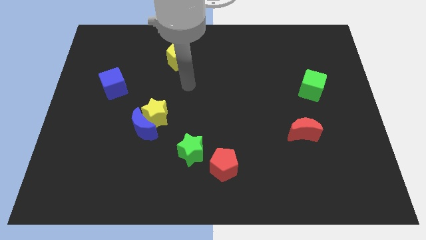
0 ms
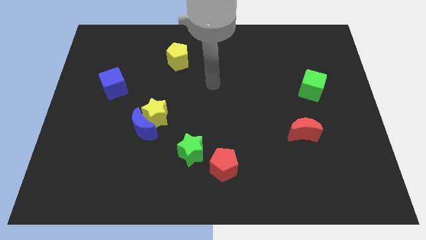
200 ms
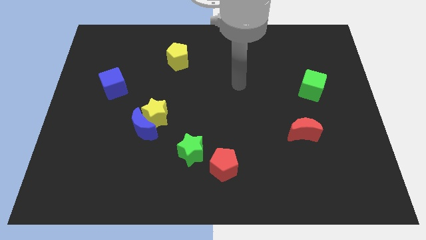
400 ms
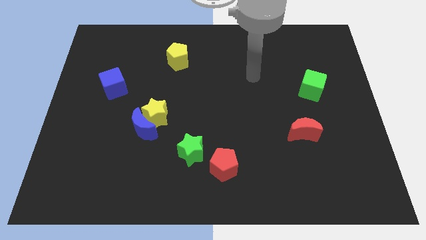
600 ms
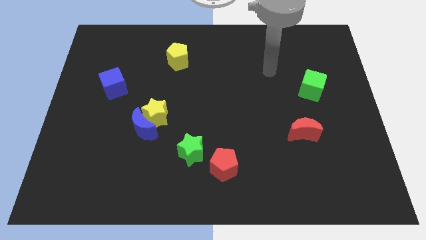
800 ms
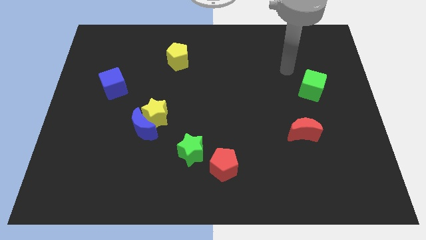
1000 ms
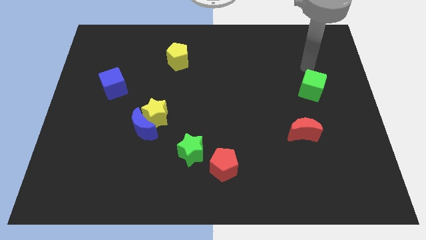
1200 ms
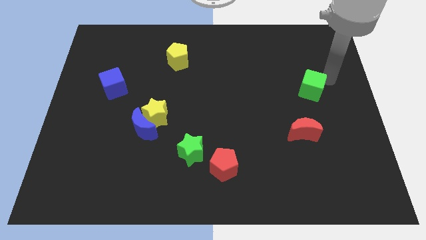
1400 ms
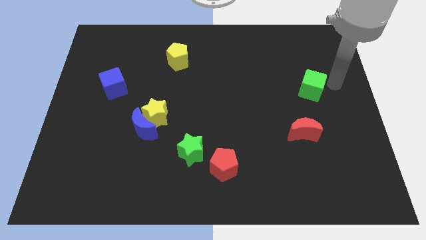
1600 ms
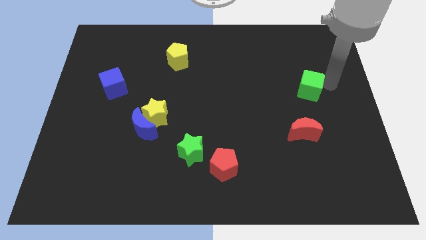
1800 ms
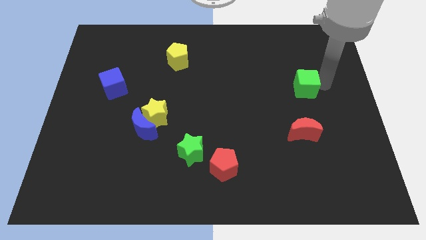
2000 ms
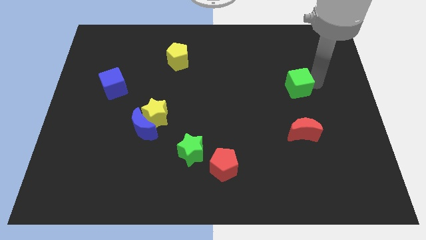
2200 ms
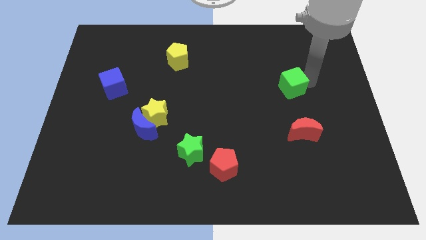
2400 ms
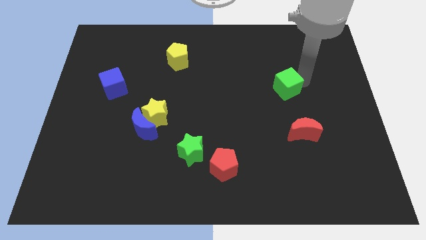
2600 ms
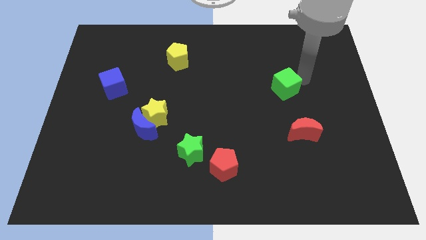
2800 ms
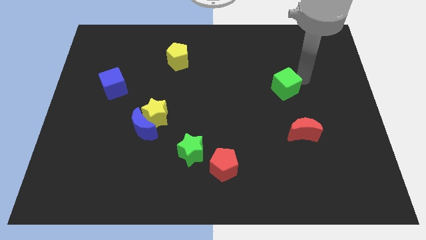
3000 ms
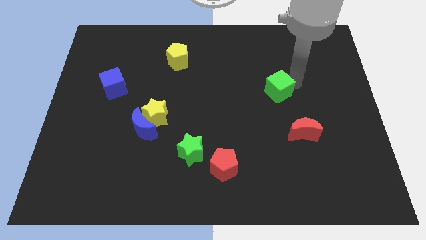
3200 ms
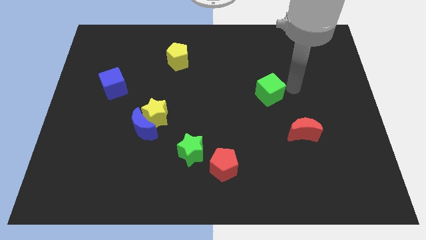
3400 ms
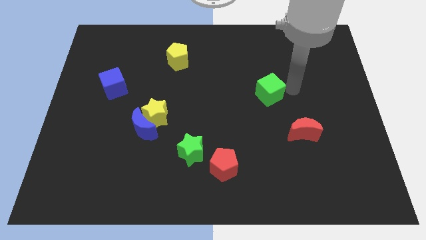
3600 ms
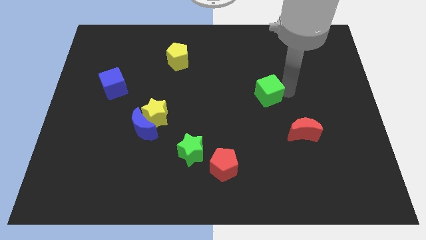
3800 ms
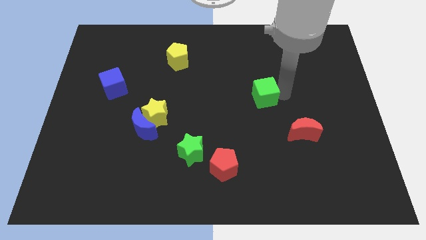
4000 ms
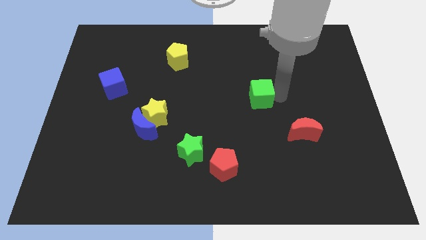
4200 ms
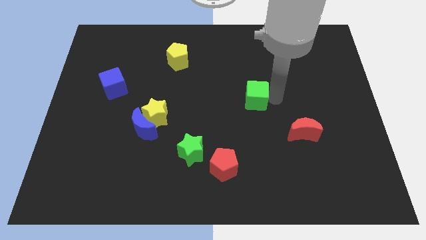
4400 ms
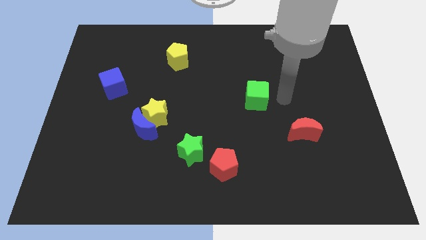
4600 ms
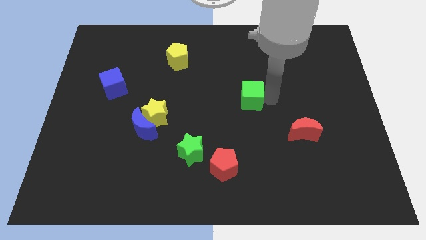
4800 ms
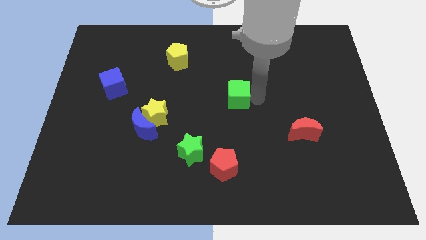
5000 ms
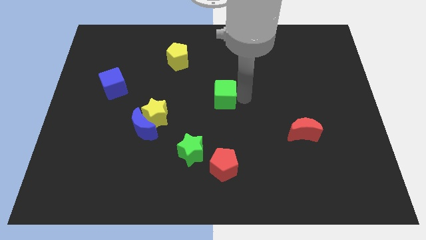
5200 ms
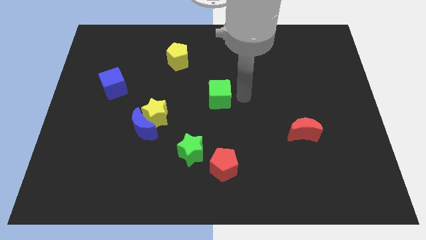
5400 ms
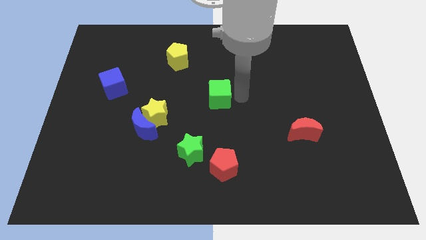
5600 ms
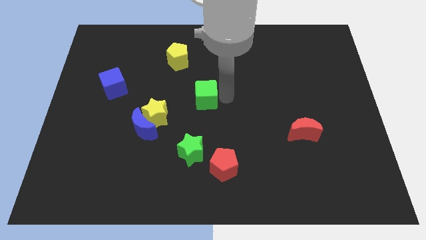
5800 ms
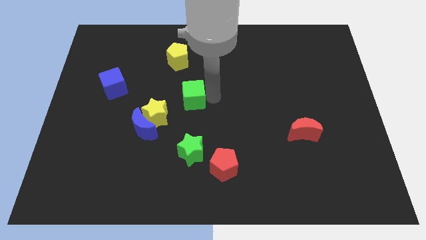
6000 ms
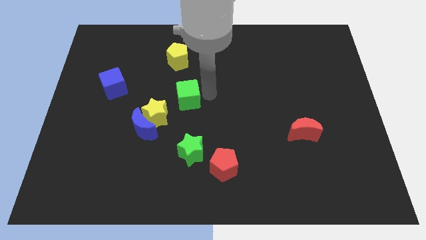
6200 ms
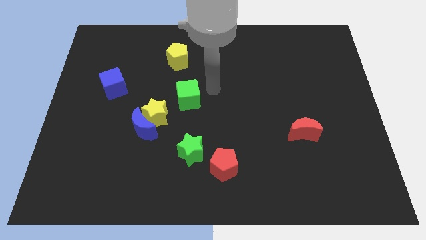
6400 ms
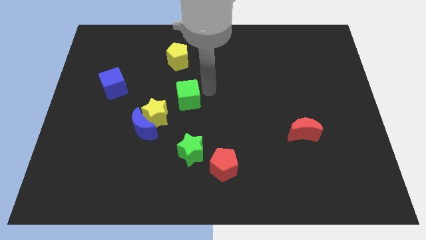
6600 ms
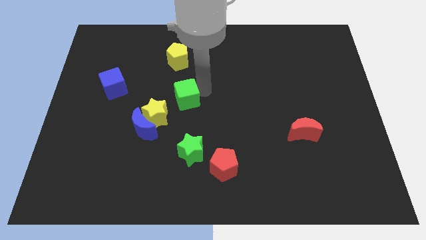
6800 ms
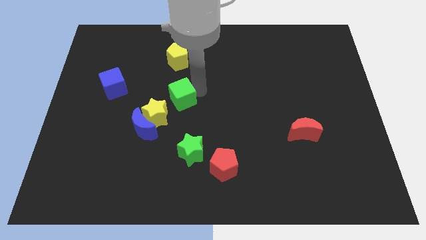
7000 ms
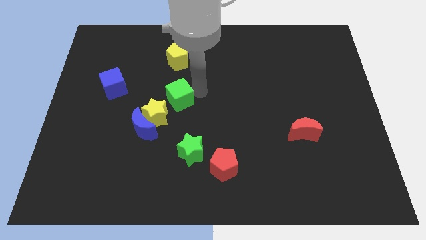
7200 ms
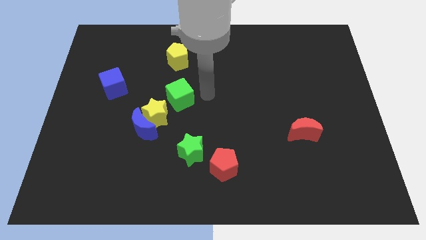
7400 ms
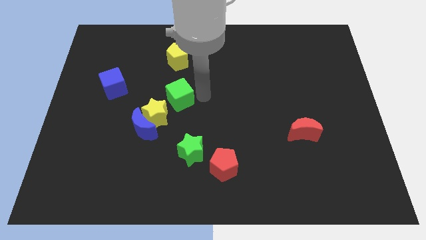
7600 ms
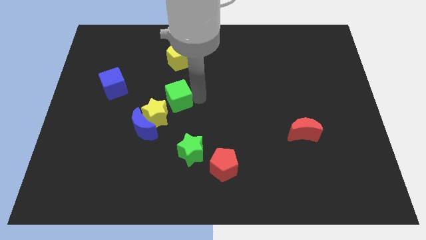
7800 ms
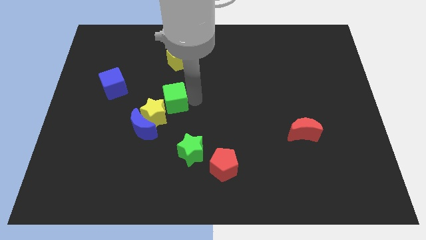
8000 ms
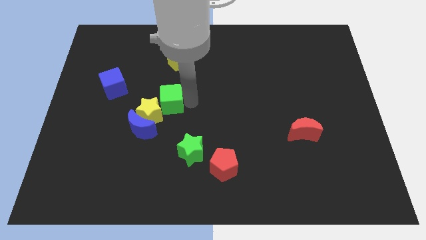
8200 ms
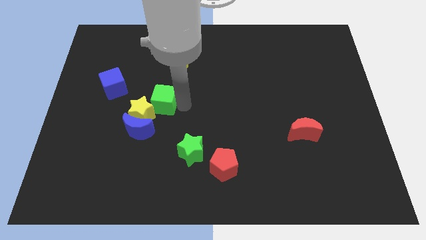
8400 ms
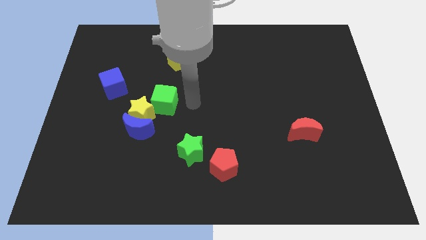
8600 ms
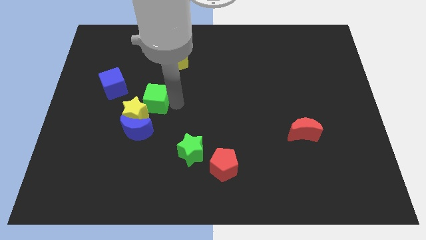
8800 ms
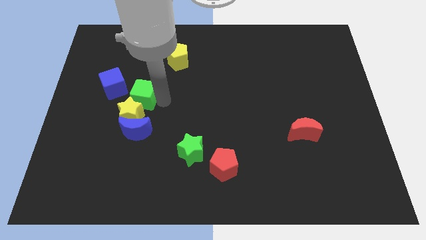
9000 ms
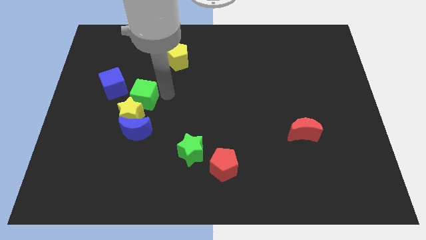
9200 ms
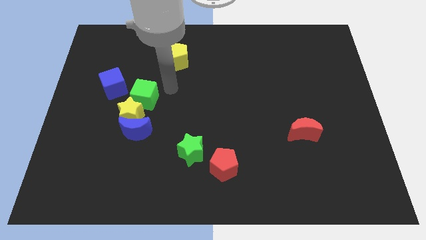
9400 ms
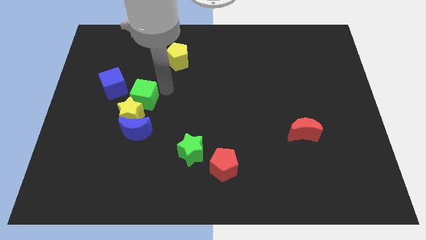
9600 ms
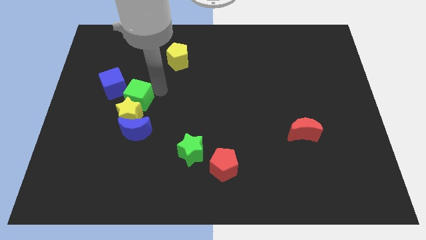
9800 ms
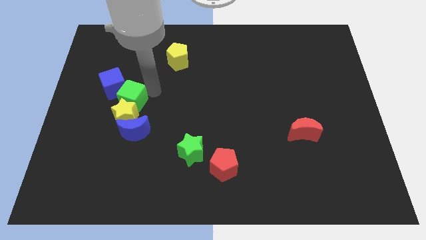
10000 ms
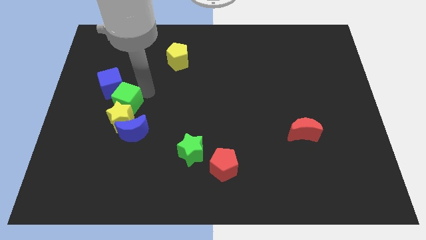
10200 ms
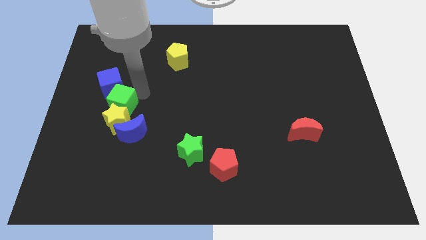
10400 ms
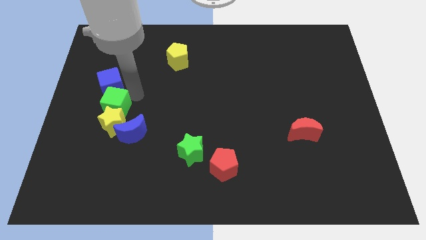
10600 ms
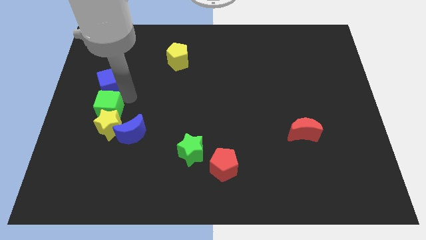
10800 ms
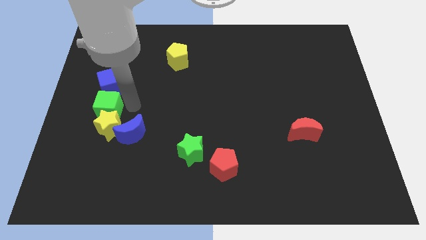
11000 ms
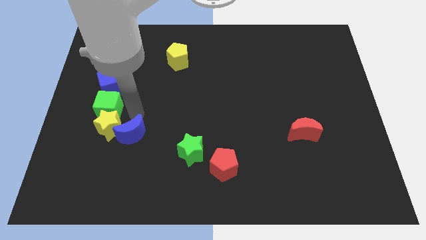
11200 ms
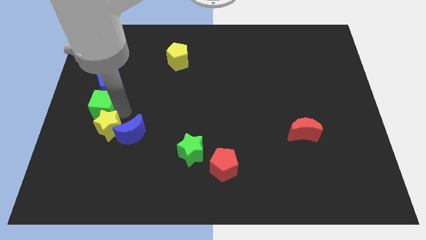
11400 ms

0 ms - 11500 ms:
move the green cube to the left side

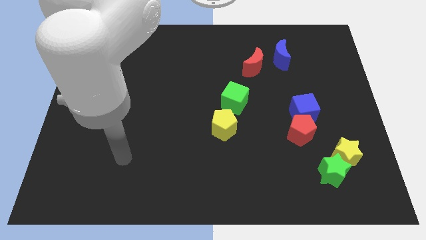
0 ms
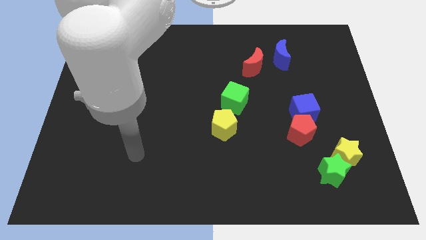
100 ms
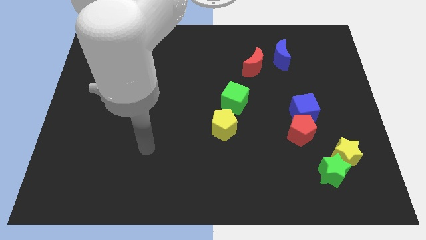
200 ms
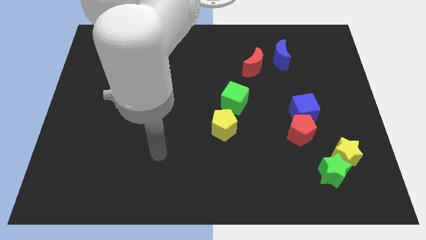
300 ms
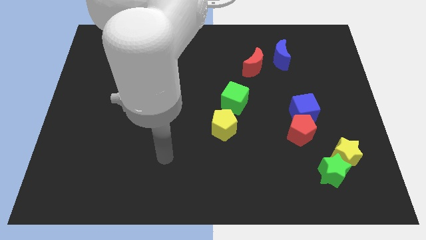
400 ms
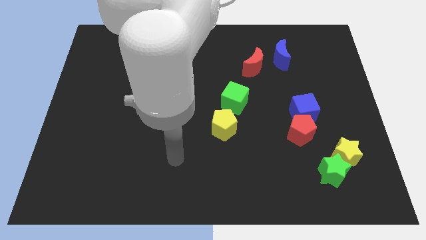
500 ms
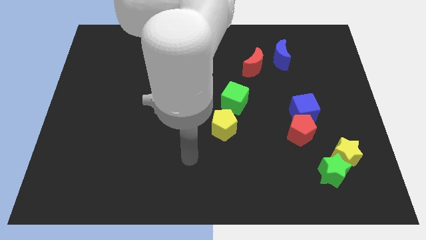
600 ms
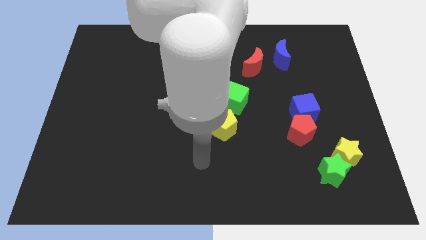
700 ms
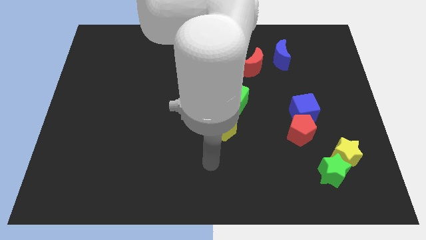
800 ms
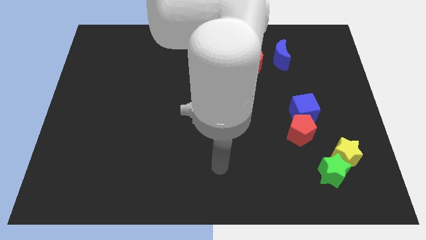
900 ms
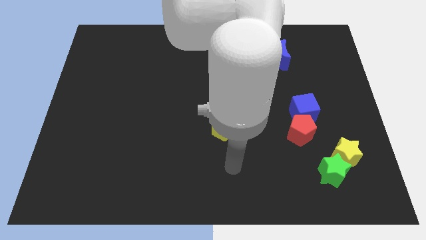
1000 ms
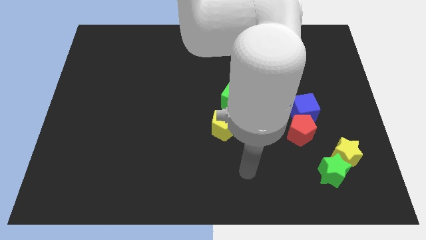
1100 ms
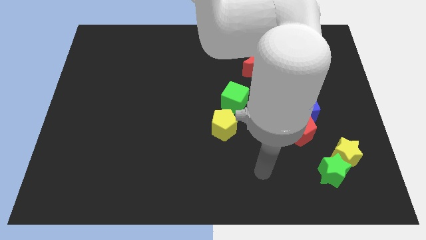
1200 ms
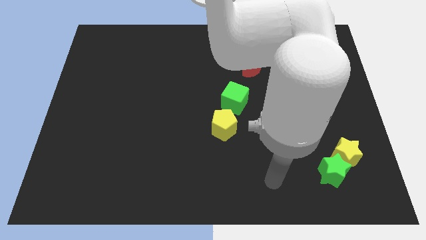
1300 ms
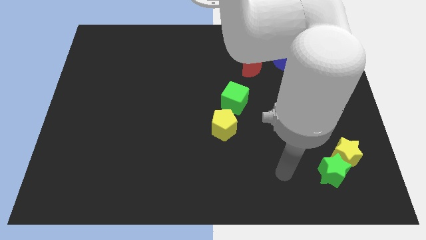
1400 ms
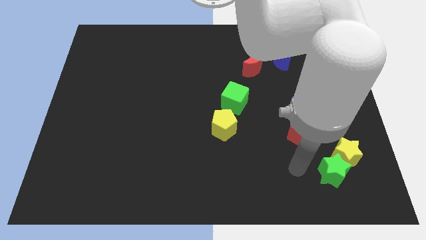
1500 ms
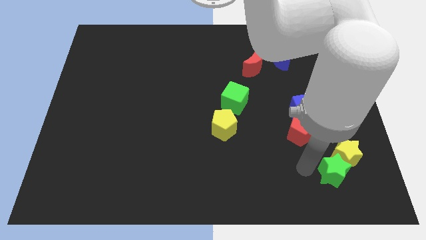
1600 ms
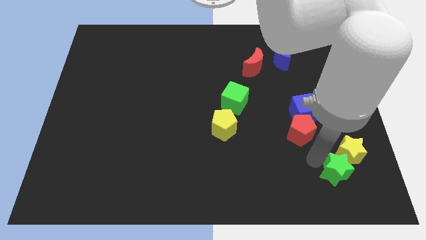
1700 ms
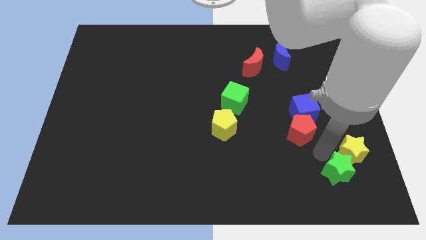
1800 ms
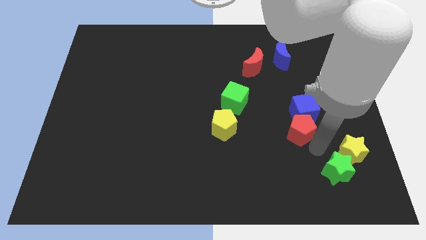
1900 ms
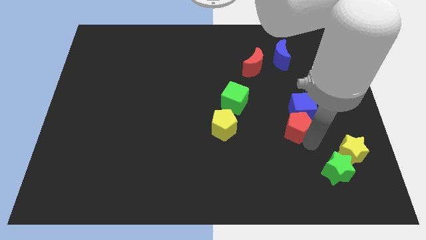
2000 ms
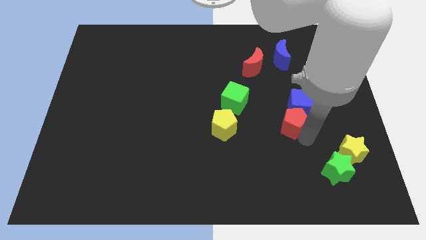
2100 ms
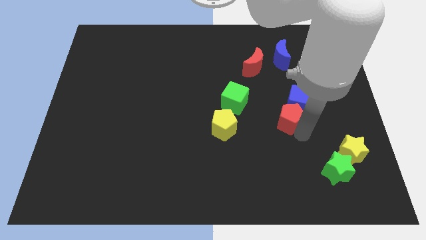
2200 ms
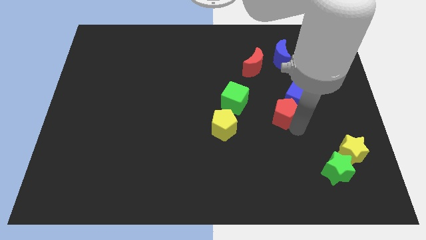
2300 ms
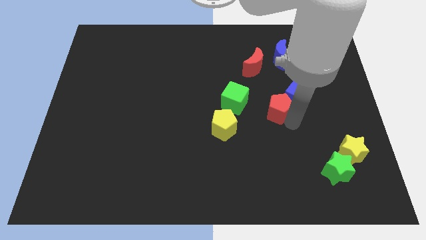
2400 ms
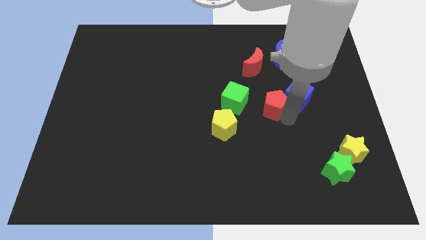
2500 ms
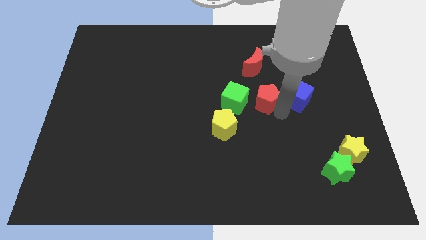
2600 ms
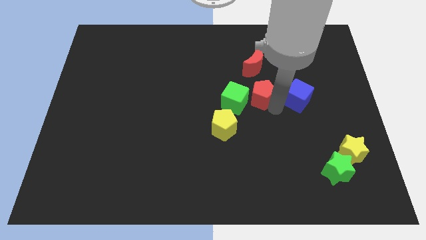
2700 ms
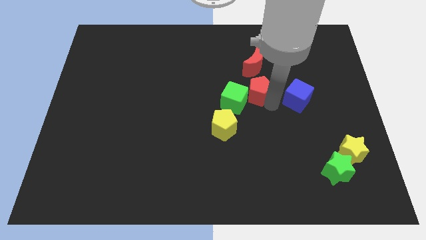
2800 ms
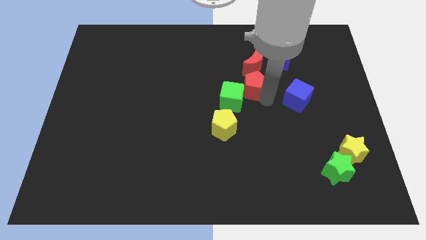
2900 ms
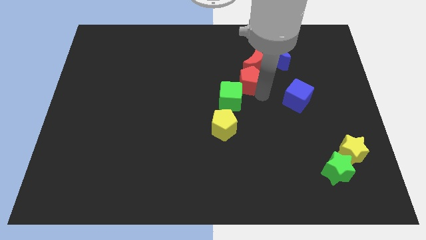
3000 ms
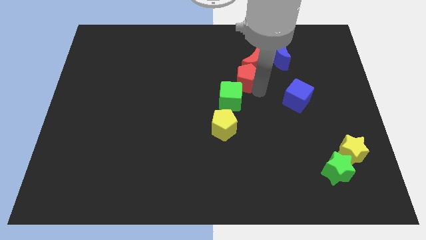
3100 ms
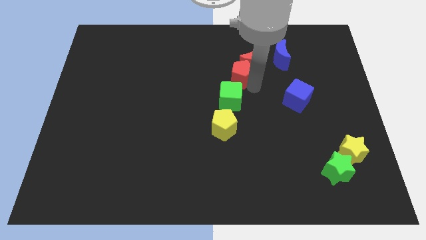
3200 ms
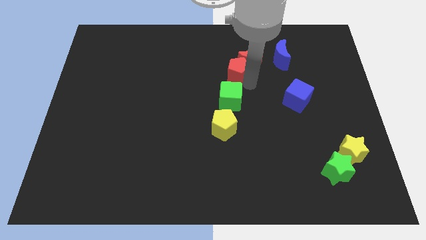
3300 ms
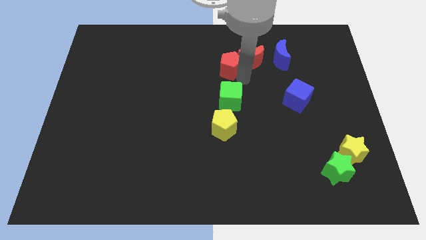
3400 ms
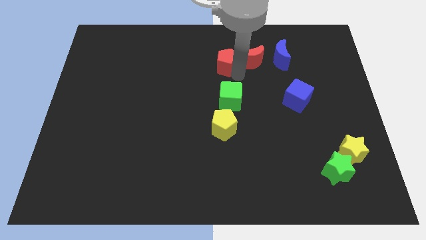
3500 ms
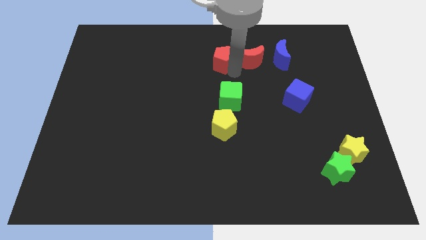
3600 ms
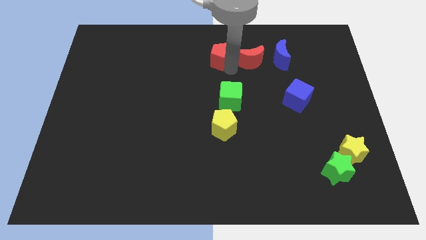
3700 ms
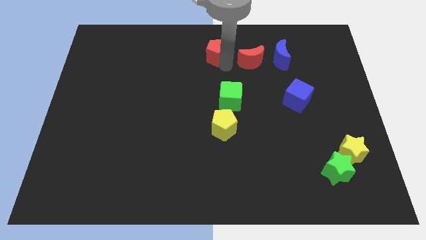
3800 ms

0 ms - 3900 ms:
put the red pentagon to the towards your base
